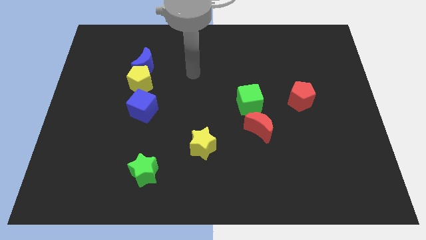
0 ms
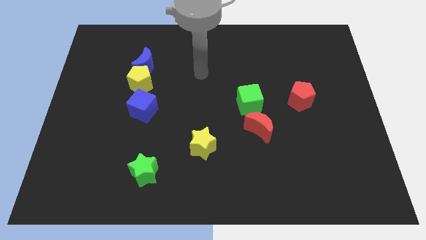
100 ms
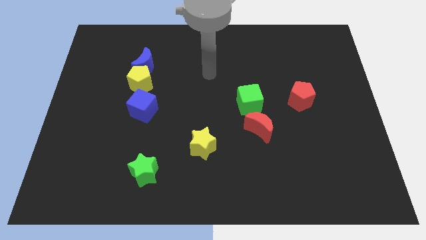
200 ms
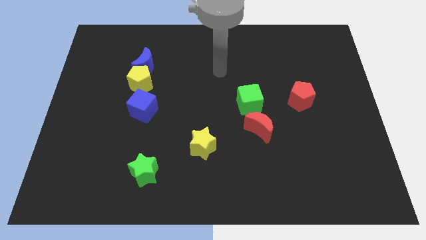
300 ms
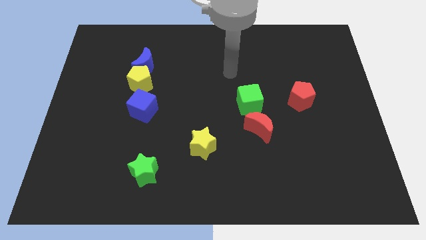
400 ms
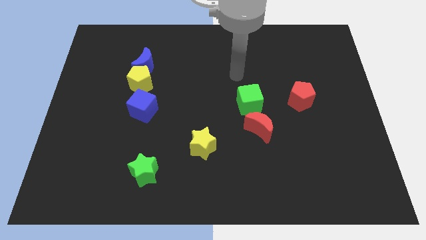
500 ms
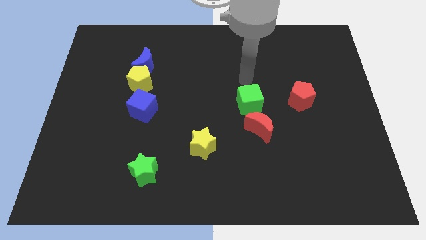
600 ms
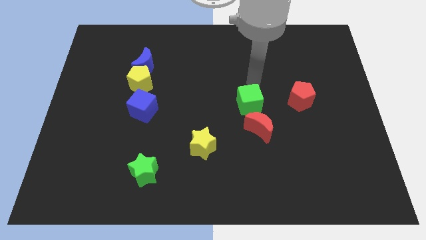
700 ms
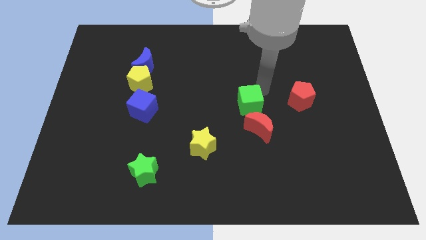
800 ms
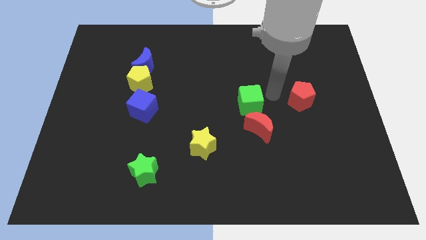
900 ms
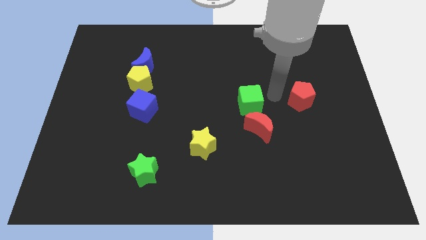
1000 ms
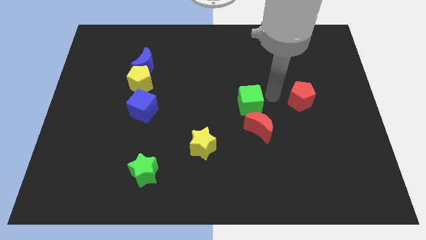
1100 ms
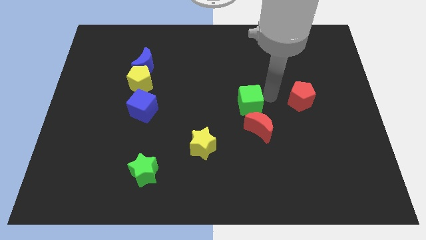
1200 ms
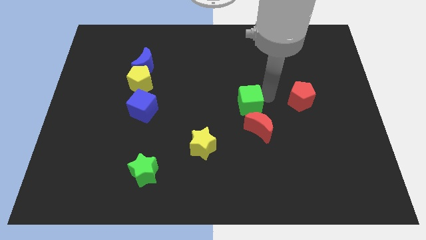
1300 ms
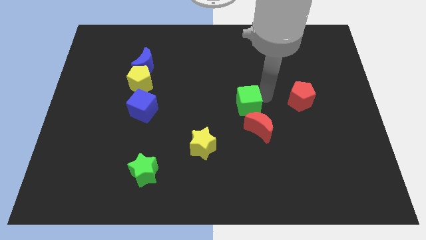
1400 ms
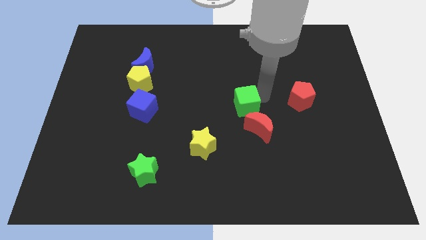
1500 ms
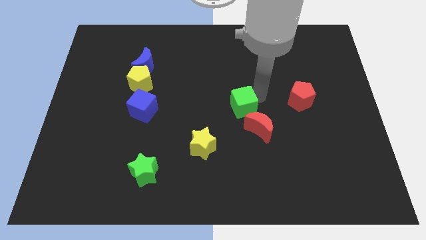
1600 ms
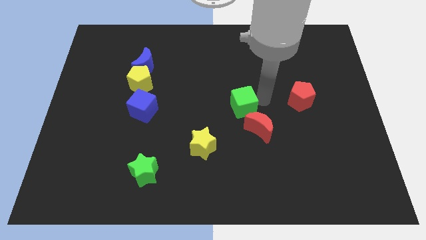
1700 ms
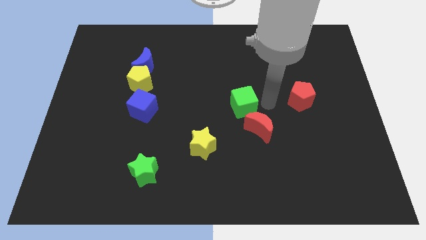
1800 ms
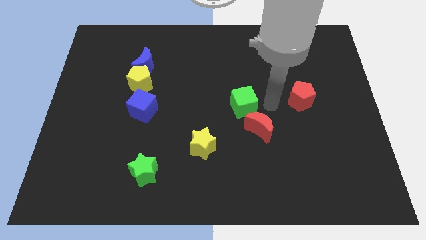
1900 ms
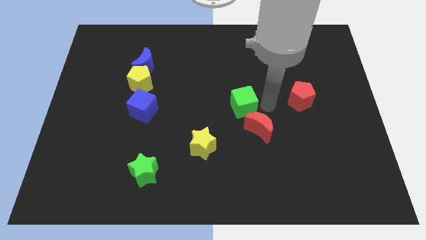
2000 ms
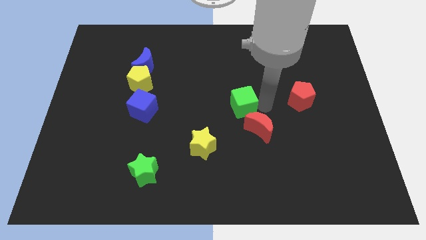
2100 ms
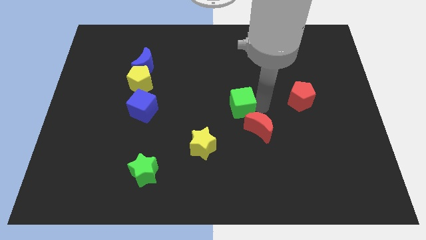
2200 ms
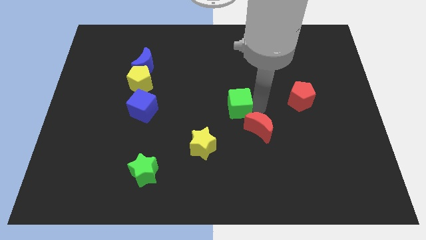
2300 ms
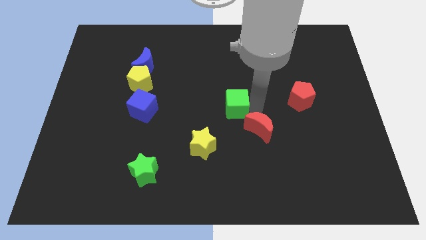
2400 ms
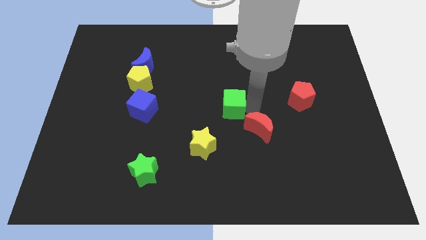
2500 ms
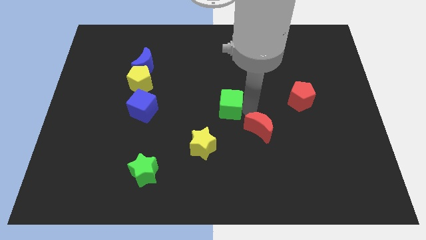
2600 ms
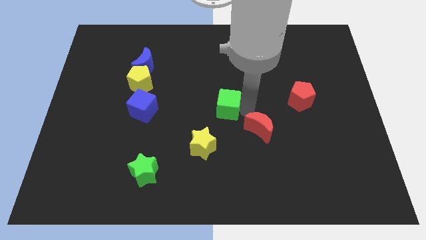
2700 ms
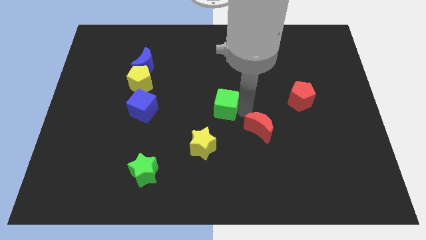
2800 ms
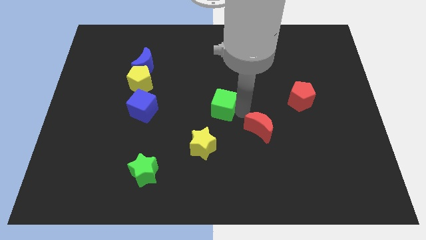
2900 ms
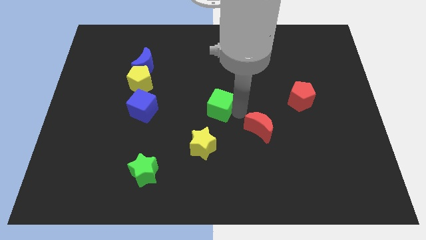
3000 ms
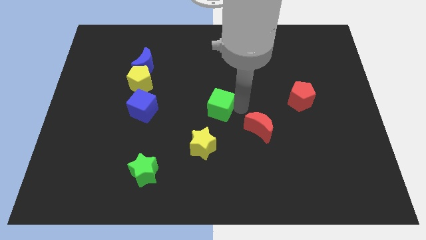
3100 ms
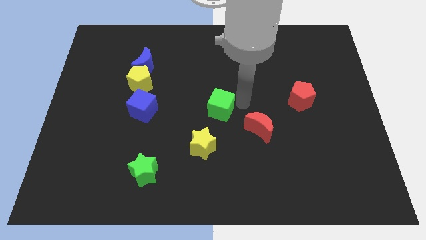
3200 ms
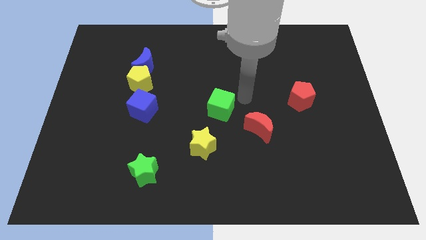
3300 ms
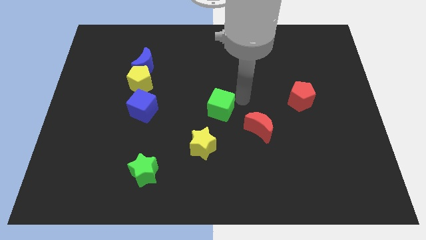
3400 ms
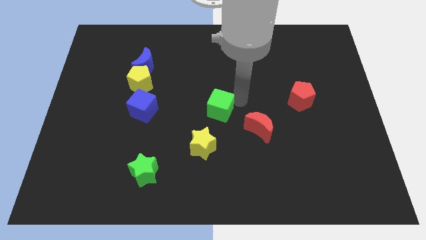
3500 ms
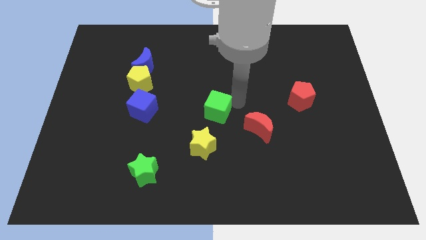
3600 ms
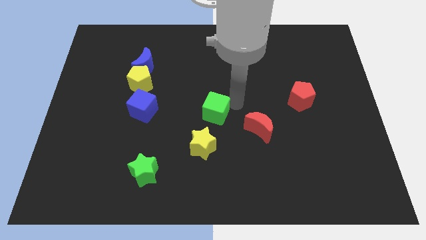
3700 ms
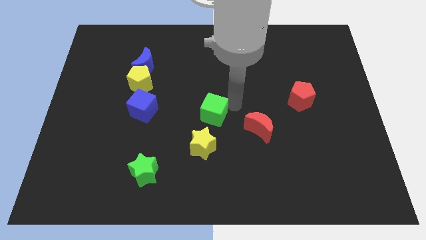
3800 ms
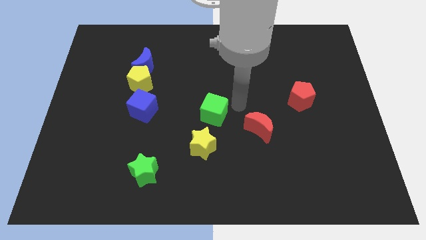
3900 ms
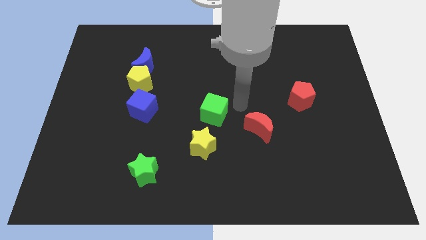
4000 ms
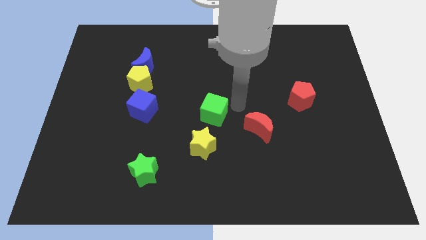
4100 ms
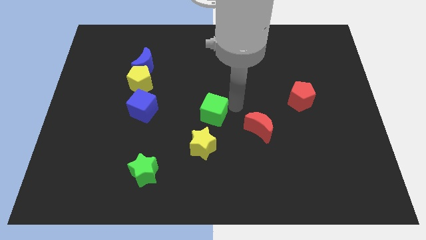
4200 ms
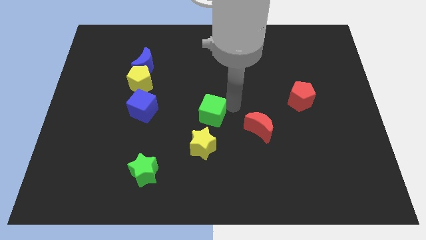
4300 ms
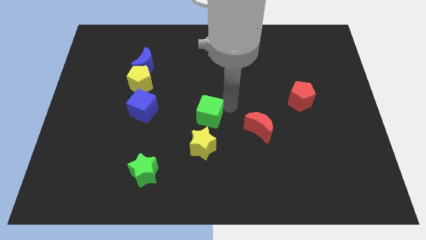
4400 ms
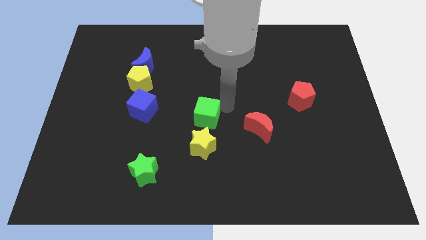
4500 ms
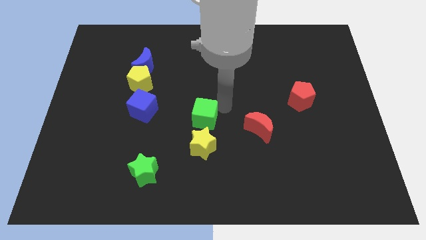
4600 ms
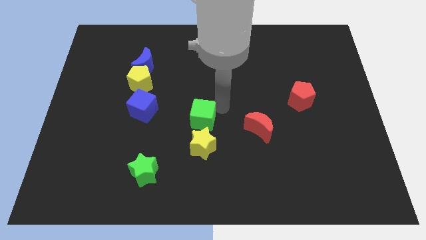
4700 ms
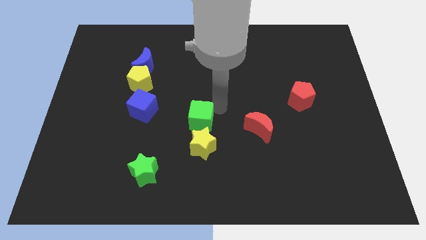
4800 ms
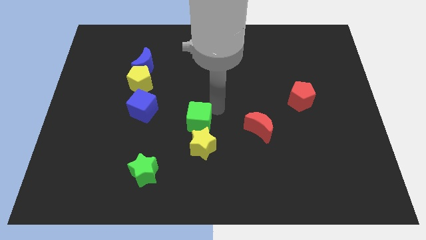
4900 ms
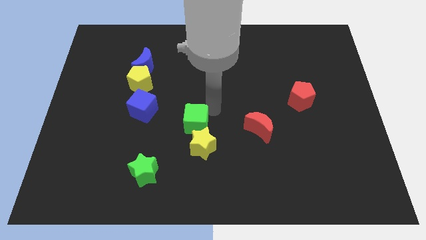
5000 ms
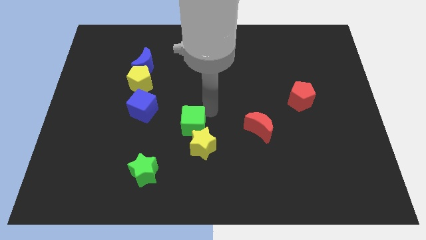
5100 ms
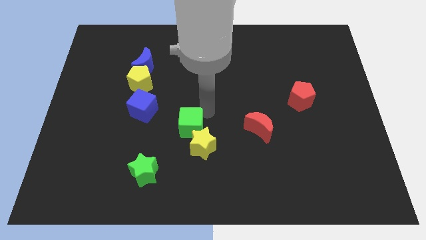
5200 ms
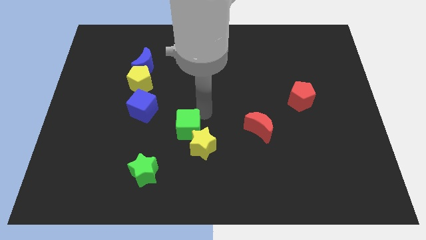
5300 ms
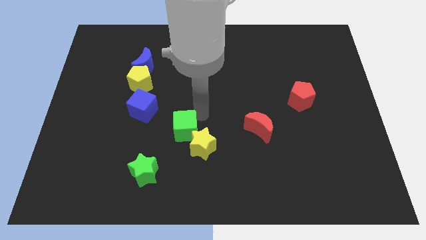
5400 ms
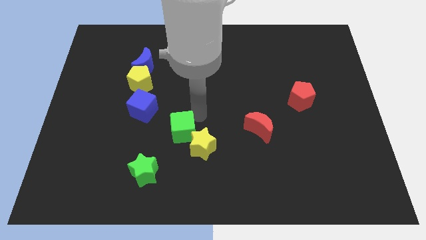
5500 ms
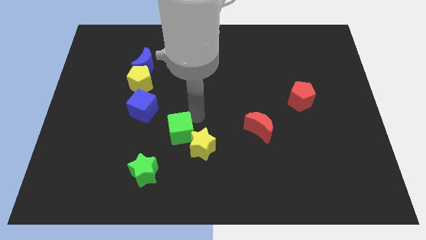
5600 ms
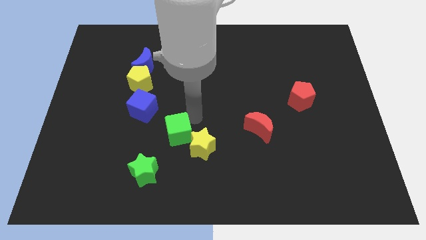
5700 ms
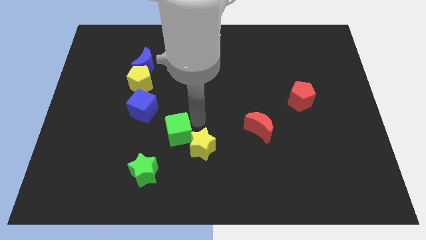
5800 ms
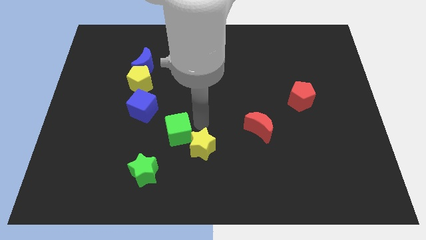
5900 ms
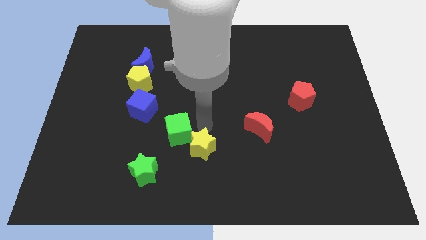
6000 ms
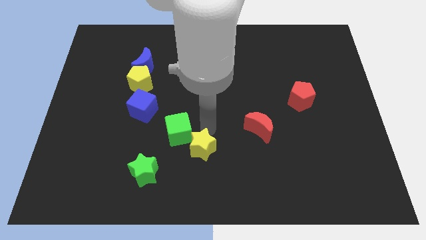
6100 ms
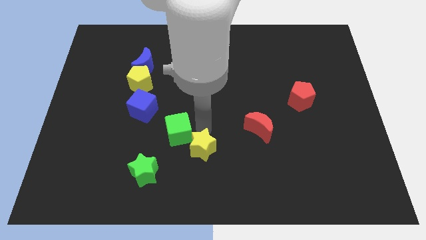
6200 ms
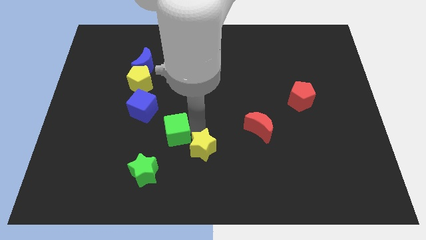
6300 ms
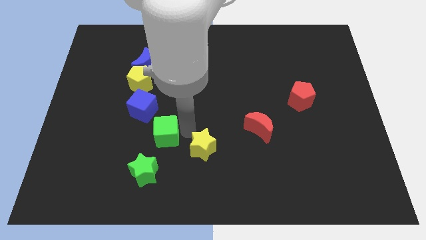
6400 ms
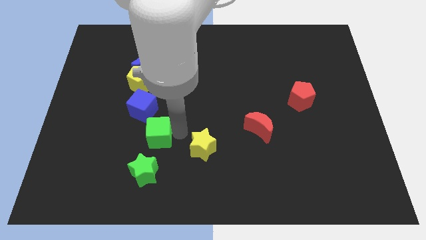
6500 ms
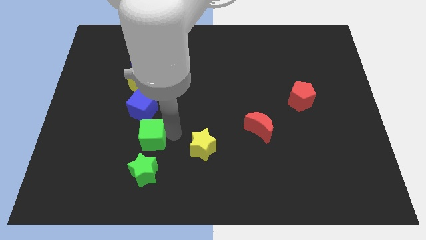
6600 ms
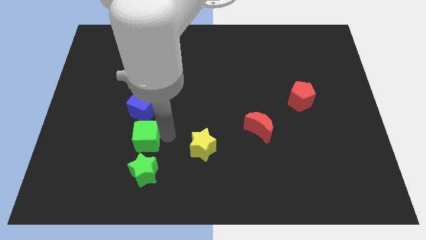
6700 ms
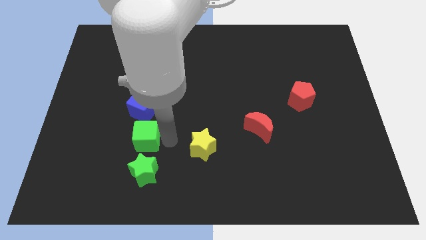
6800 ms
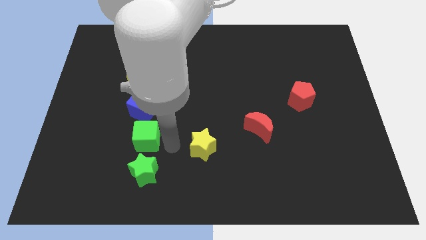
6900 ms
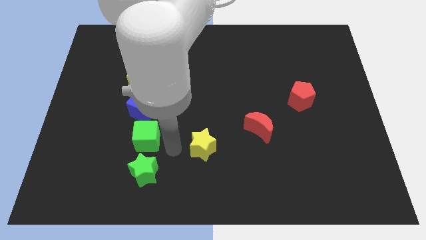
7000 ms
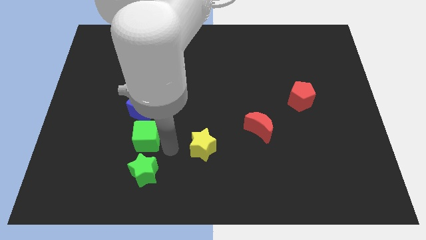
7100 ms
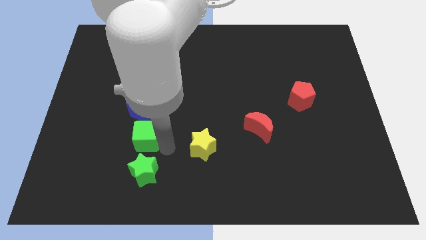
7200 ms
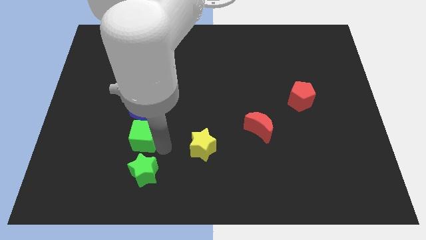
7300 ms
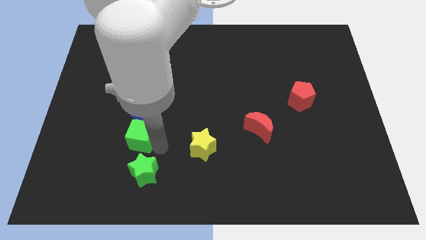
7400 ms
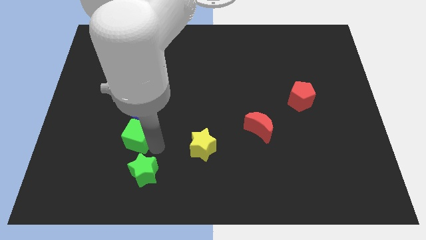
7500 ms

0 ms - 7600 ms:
push the green cube left

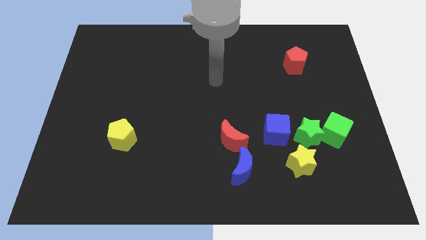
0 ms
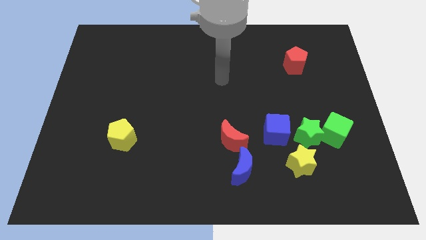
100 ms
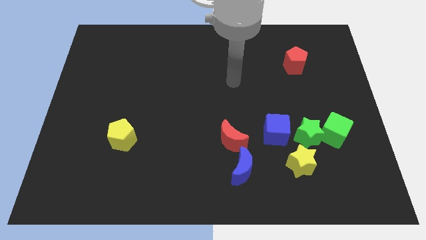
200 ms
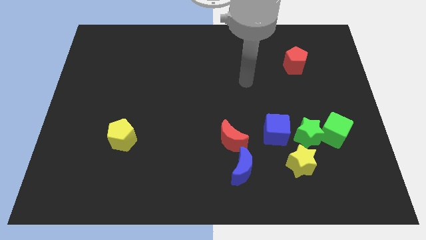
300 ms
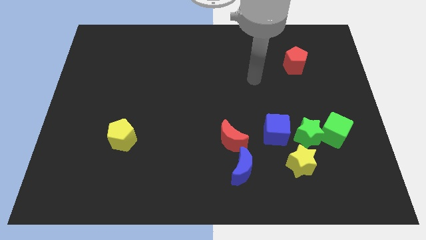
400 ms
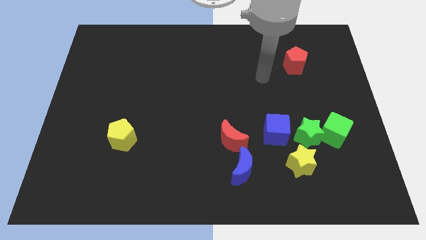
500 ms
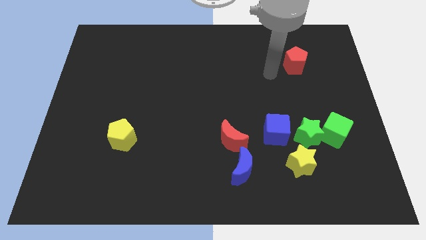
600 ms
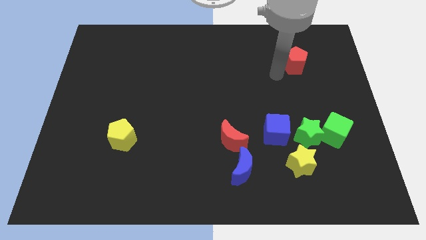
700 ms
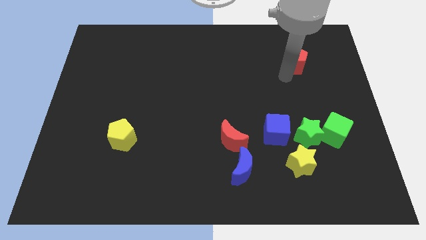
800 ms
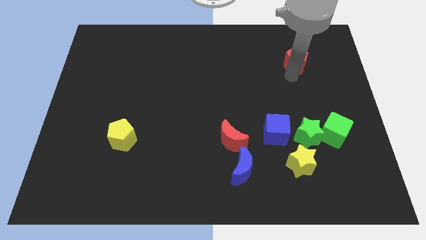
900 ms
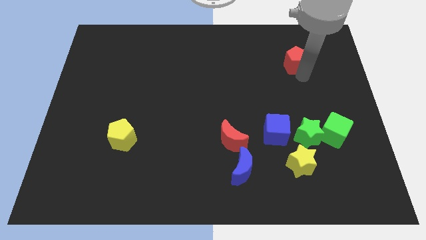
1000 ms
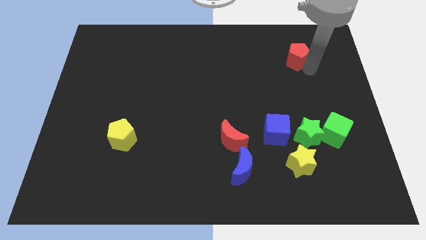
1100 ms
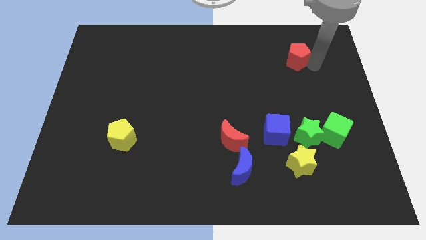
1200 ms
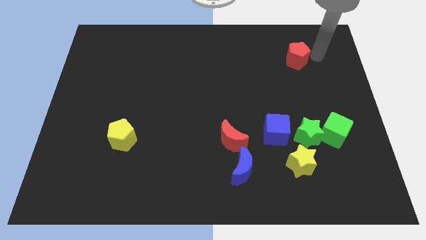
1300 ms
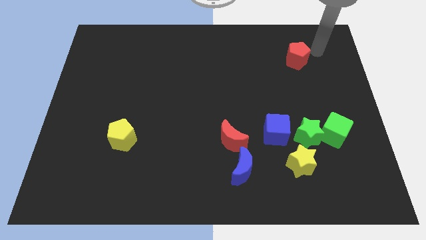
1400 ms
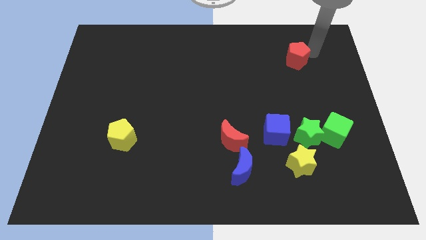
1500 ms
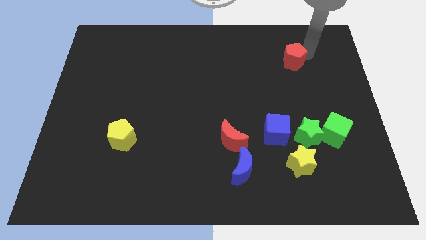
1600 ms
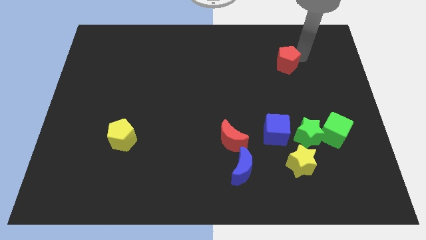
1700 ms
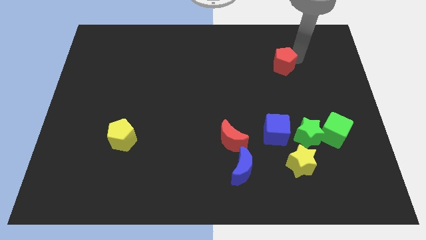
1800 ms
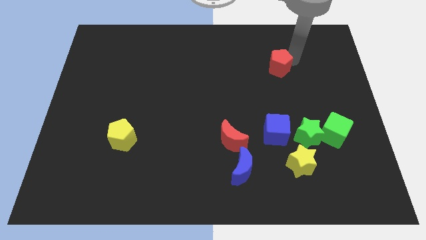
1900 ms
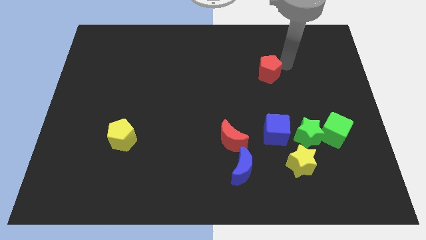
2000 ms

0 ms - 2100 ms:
slightly push the red pentagon left
